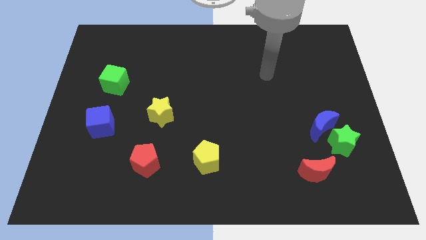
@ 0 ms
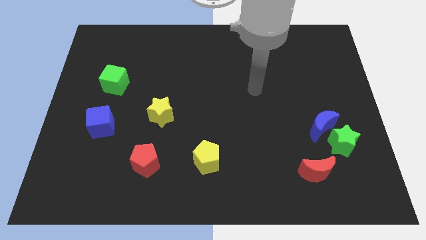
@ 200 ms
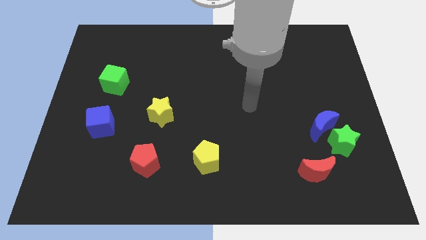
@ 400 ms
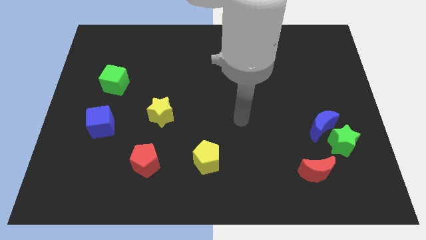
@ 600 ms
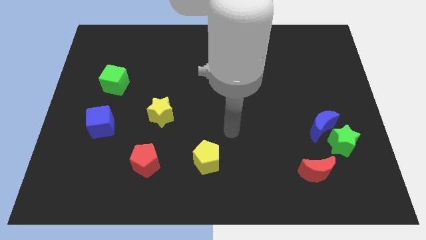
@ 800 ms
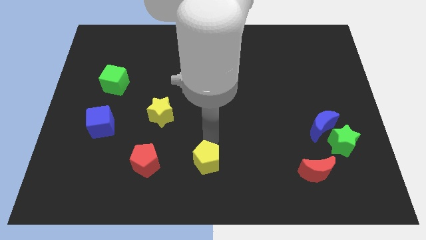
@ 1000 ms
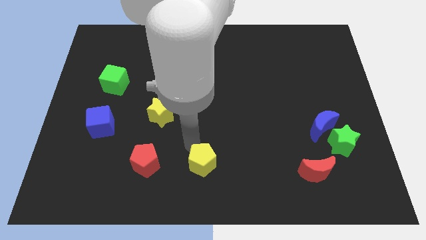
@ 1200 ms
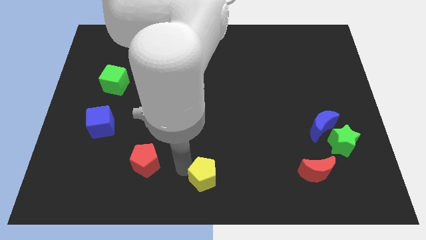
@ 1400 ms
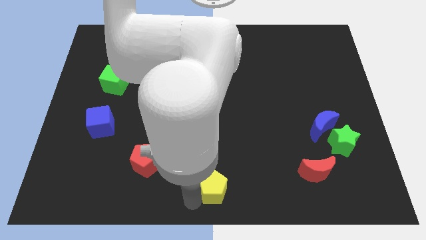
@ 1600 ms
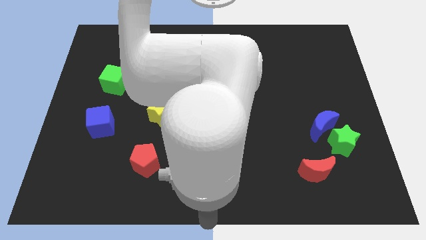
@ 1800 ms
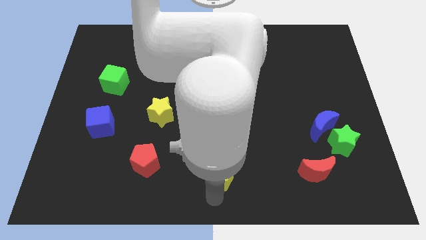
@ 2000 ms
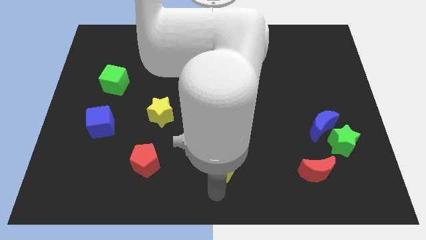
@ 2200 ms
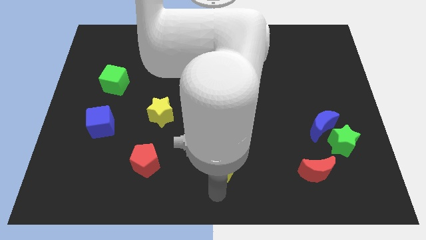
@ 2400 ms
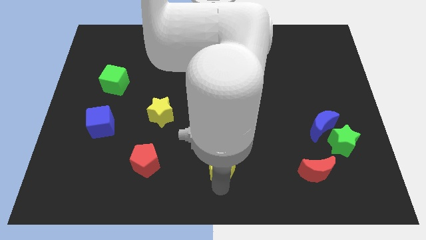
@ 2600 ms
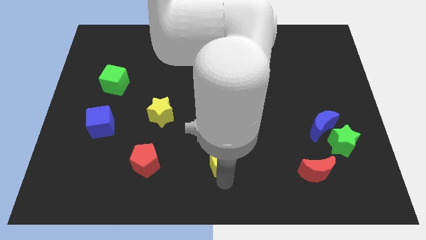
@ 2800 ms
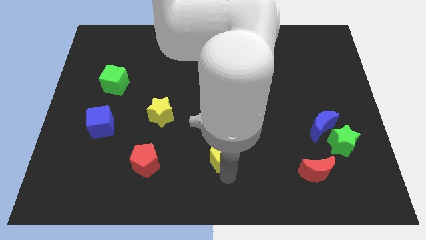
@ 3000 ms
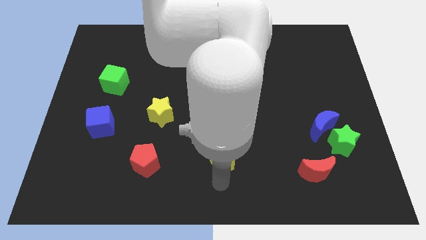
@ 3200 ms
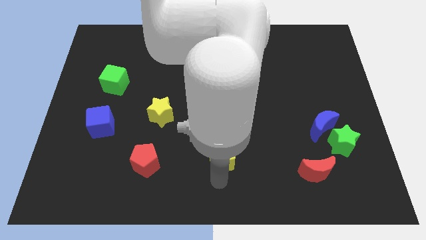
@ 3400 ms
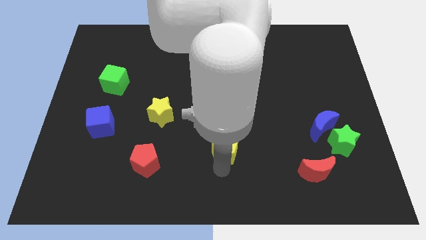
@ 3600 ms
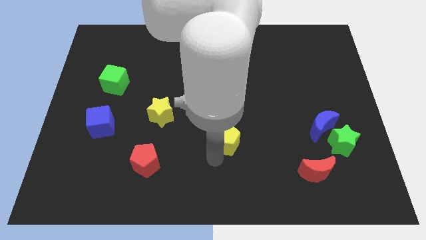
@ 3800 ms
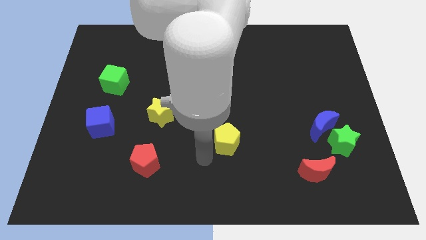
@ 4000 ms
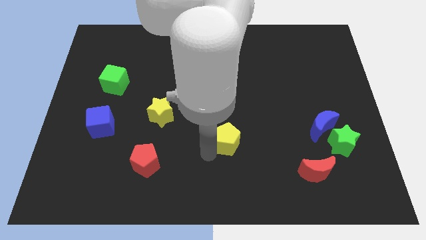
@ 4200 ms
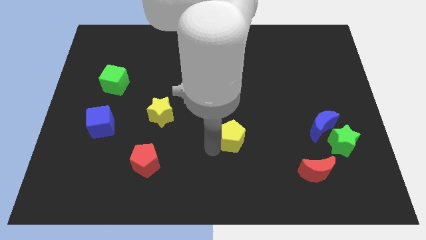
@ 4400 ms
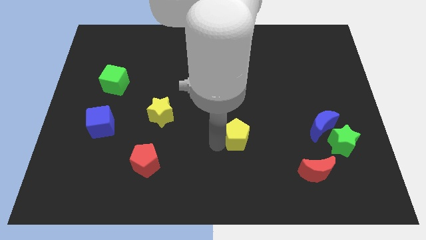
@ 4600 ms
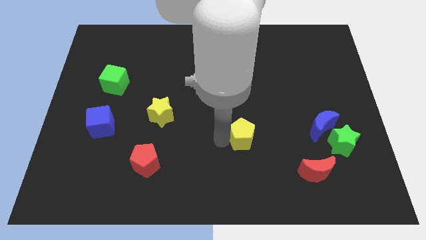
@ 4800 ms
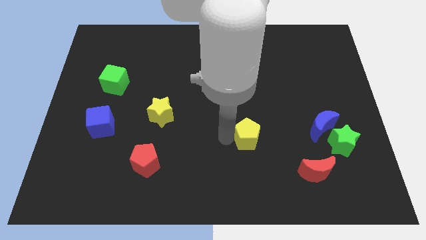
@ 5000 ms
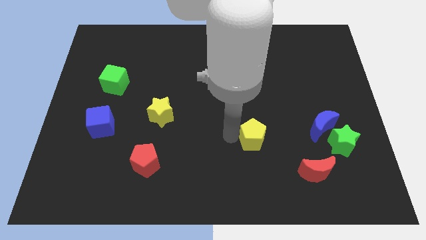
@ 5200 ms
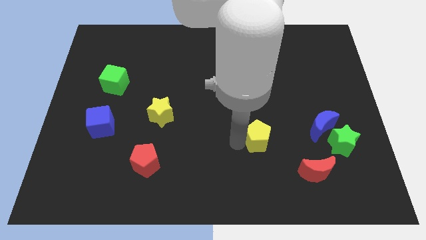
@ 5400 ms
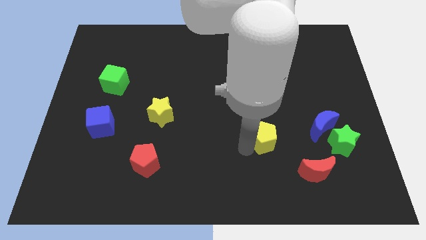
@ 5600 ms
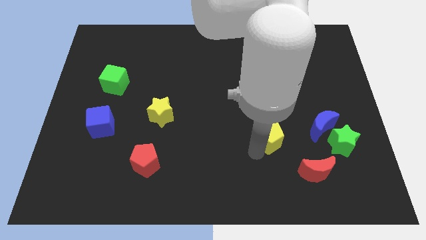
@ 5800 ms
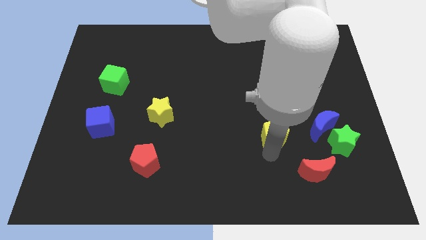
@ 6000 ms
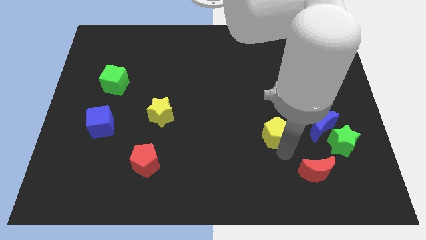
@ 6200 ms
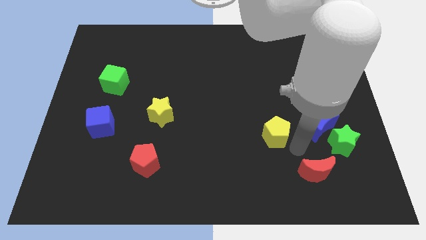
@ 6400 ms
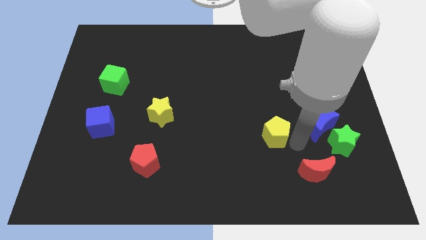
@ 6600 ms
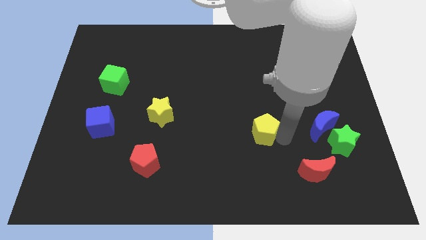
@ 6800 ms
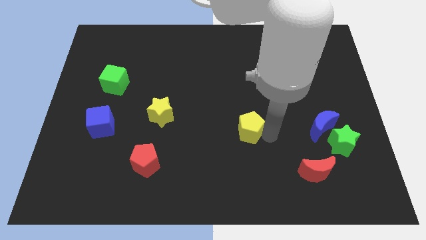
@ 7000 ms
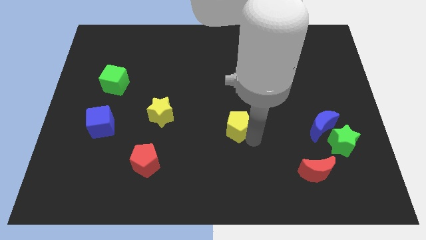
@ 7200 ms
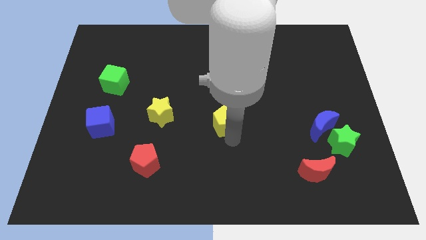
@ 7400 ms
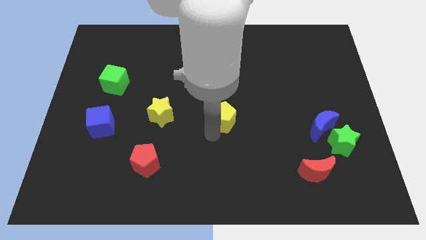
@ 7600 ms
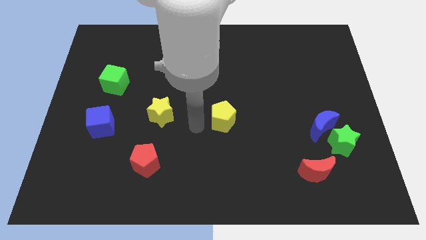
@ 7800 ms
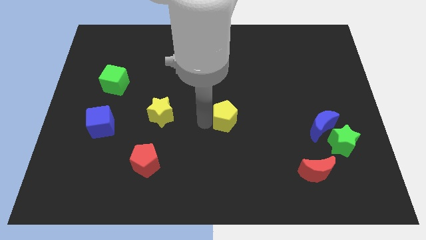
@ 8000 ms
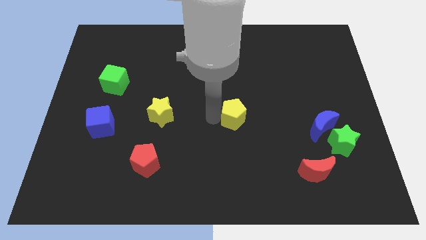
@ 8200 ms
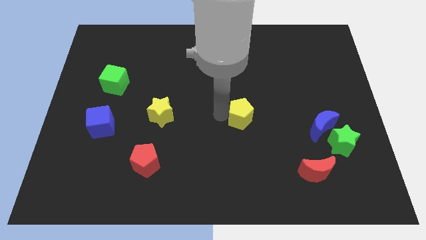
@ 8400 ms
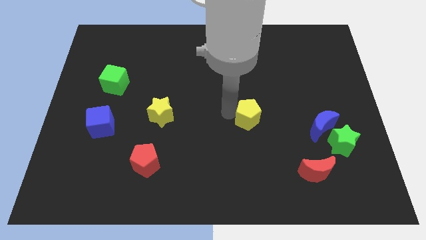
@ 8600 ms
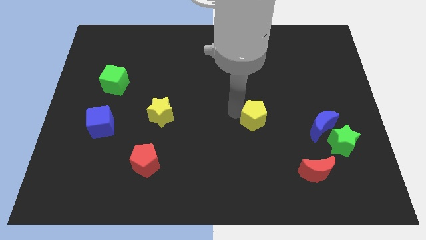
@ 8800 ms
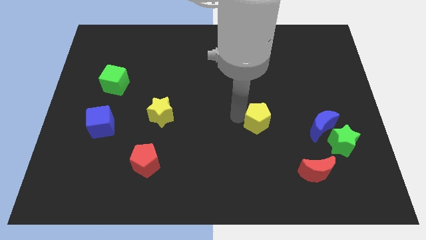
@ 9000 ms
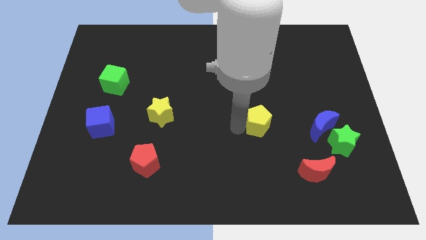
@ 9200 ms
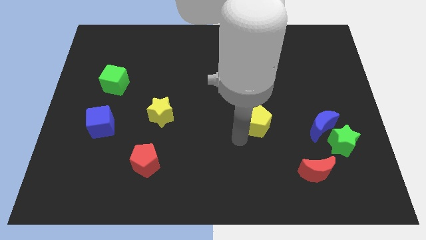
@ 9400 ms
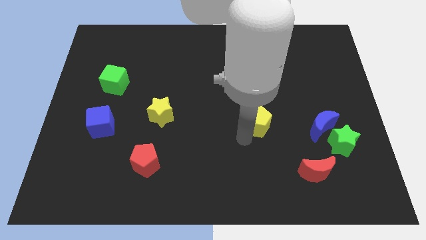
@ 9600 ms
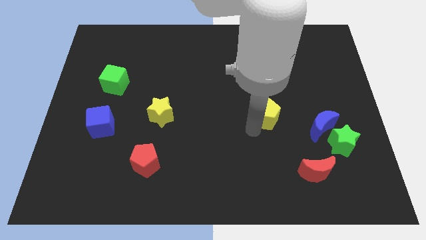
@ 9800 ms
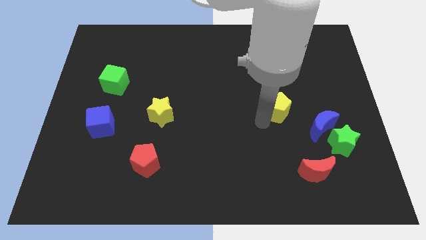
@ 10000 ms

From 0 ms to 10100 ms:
move the yellow pentagon diagonally upwards and right

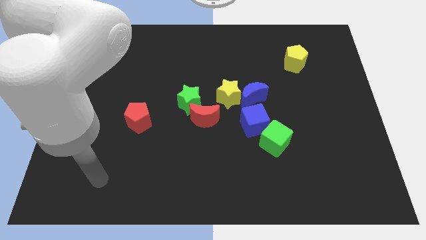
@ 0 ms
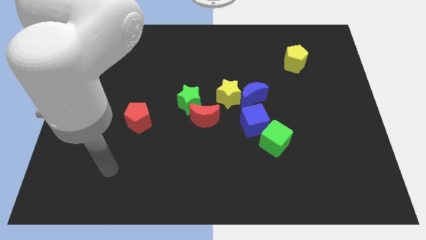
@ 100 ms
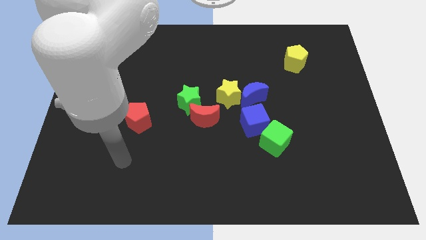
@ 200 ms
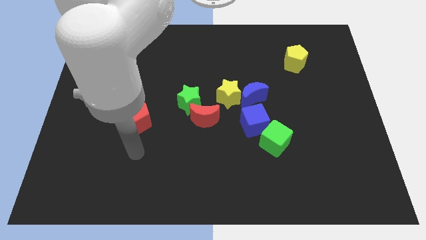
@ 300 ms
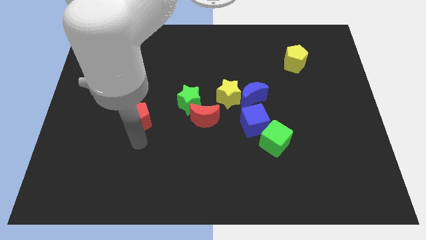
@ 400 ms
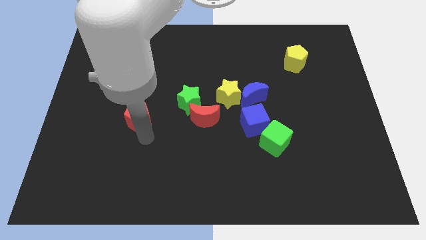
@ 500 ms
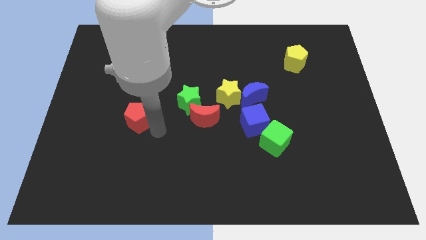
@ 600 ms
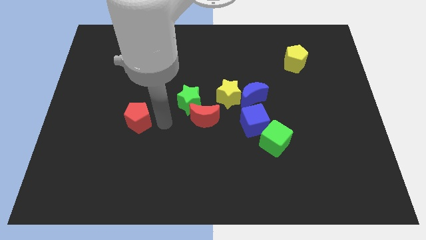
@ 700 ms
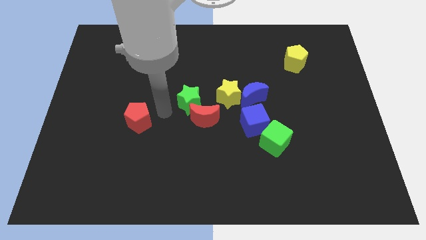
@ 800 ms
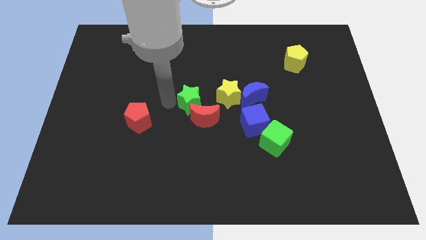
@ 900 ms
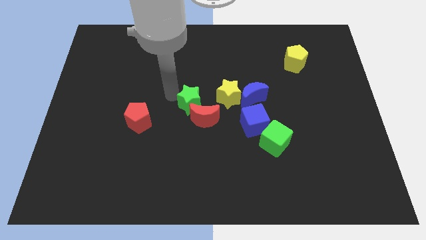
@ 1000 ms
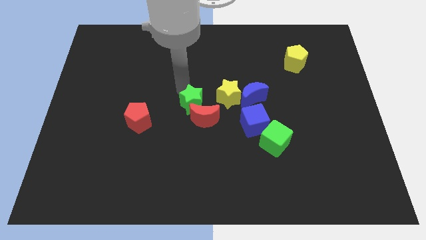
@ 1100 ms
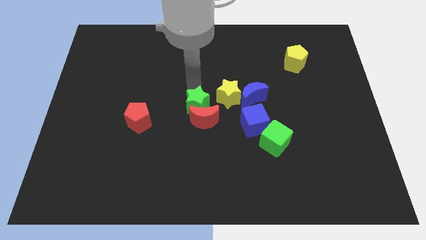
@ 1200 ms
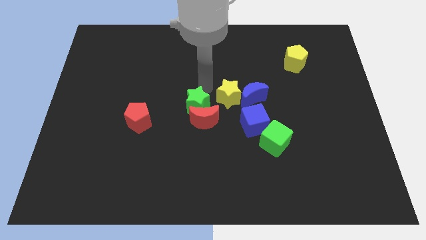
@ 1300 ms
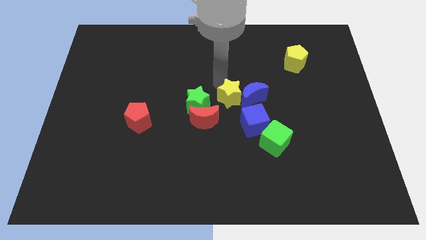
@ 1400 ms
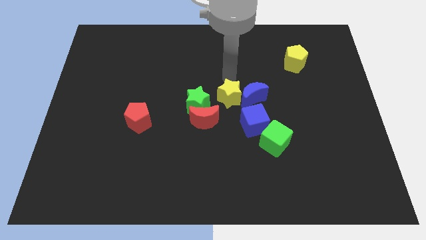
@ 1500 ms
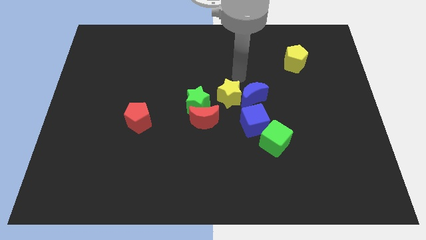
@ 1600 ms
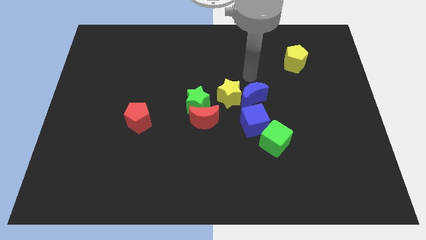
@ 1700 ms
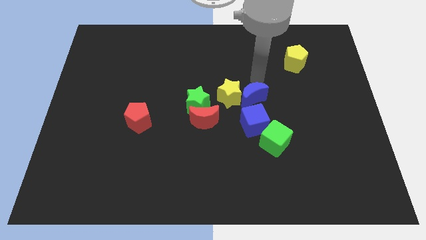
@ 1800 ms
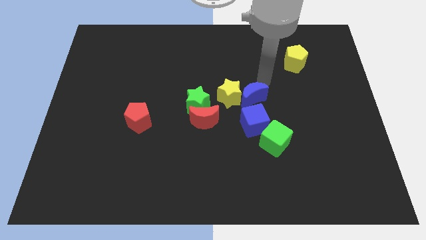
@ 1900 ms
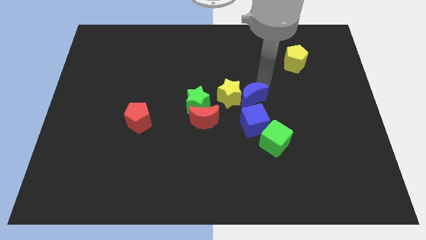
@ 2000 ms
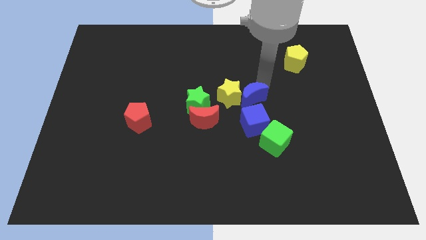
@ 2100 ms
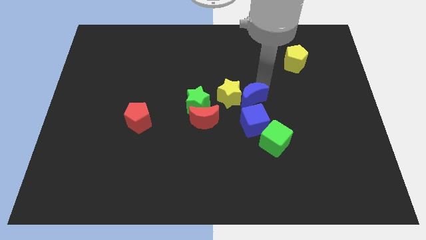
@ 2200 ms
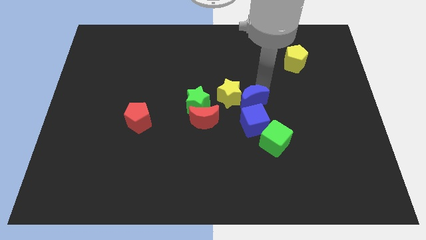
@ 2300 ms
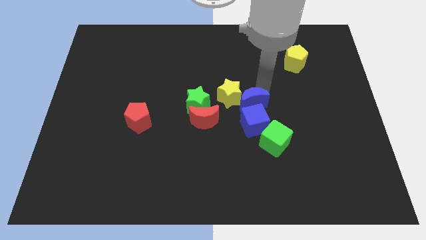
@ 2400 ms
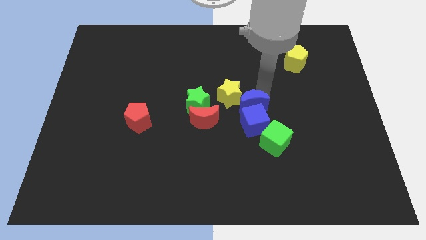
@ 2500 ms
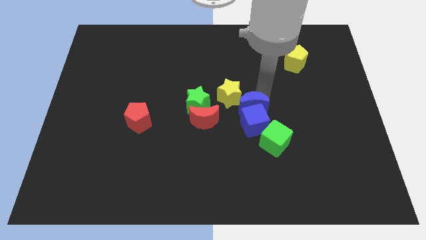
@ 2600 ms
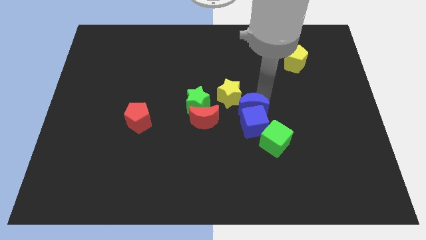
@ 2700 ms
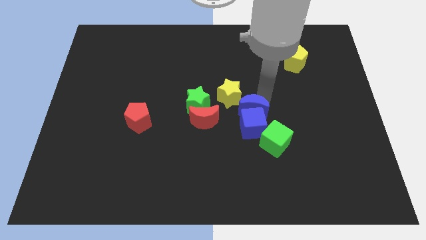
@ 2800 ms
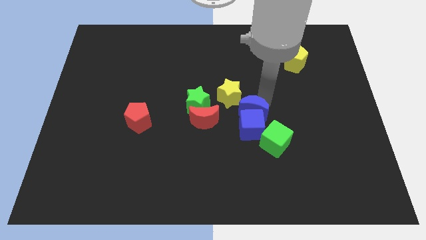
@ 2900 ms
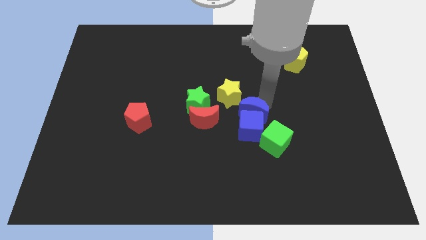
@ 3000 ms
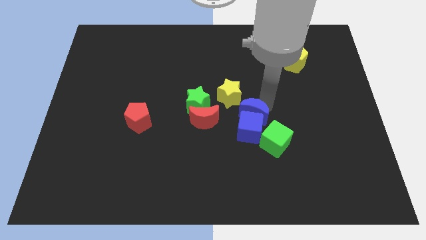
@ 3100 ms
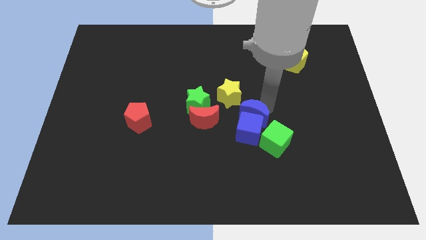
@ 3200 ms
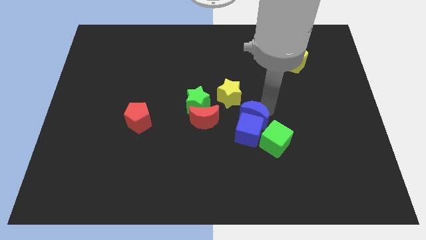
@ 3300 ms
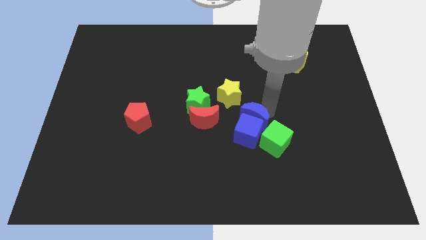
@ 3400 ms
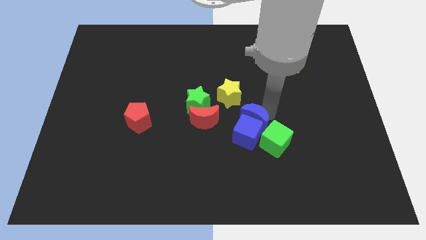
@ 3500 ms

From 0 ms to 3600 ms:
slightly move the blue moon downwards
